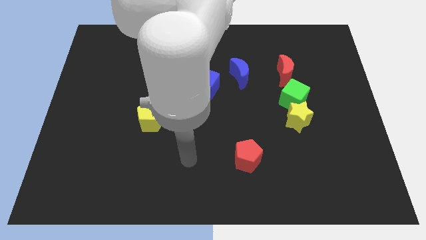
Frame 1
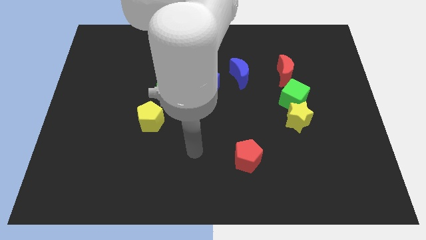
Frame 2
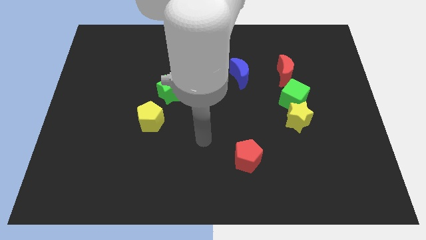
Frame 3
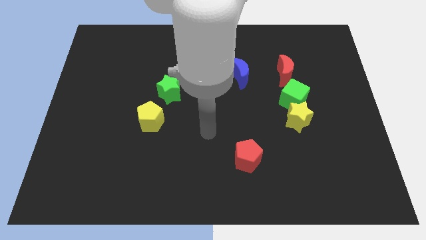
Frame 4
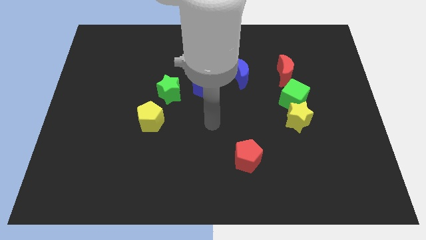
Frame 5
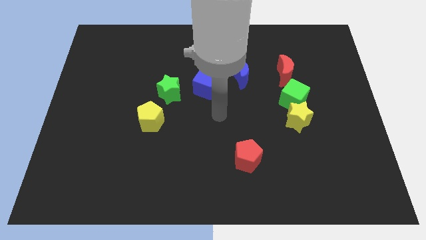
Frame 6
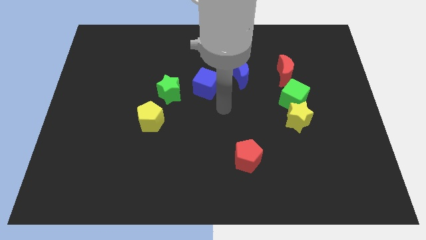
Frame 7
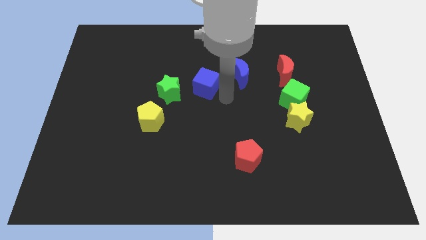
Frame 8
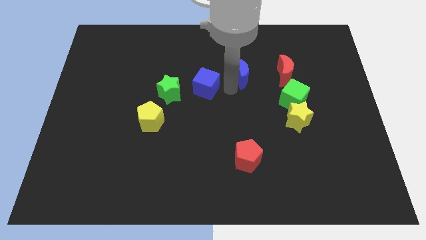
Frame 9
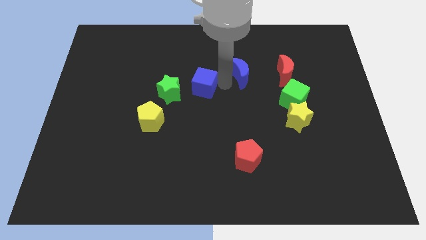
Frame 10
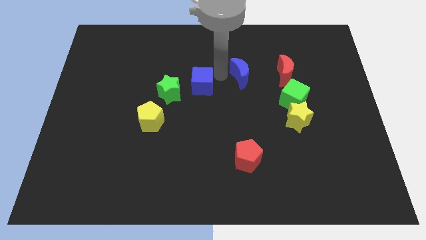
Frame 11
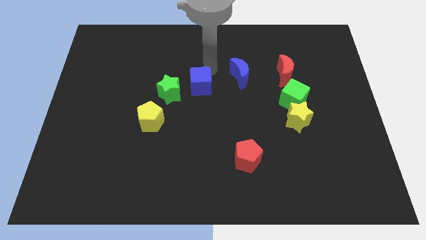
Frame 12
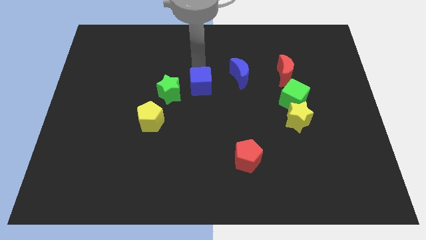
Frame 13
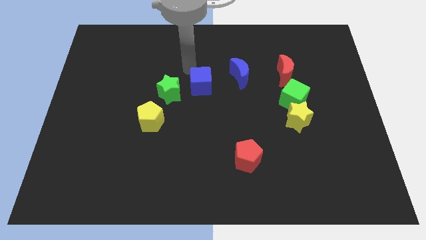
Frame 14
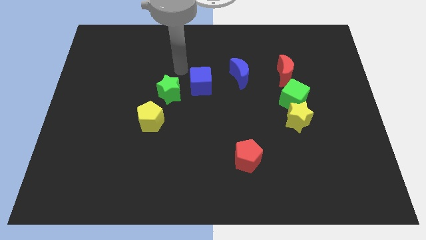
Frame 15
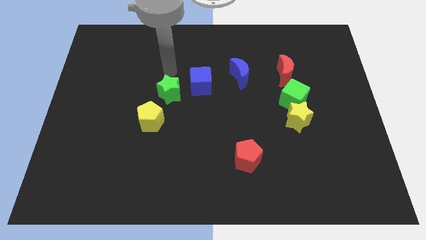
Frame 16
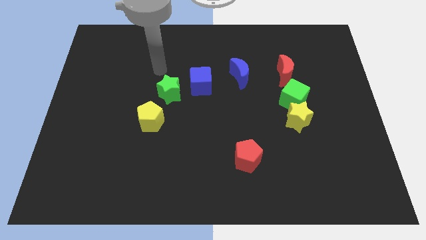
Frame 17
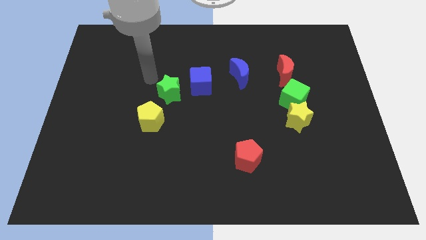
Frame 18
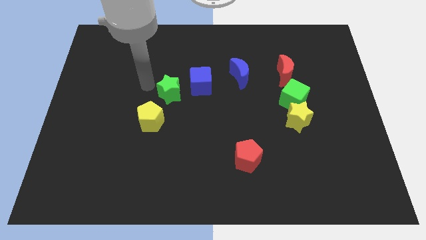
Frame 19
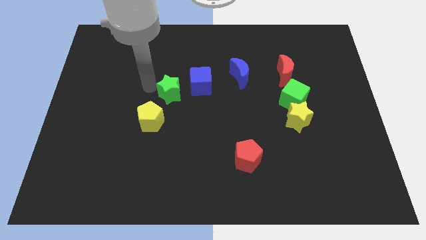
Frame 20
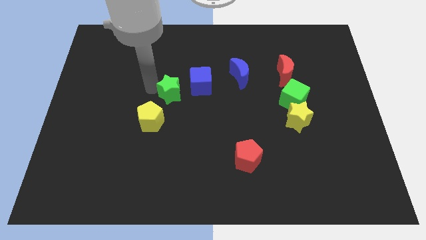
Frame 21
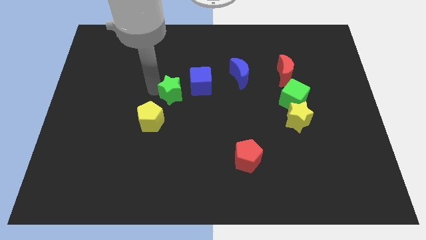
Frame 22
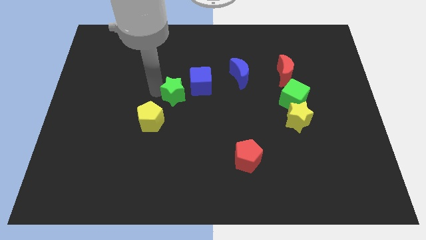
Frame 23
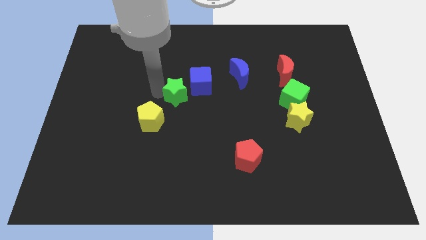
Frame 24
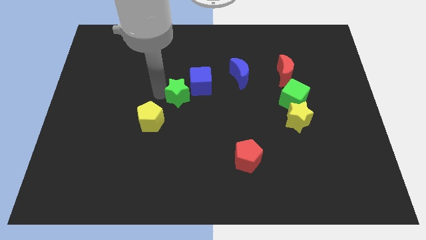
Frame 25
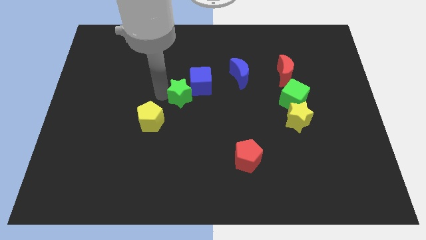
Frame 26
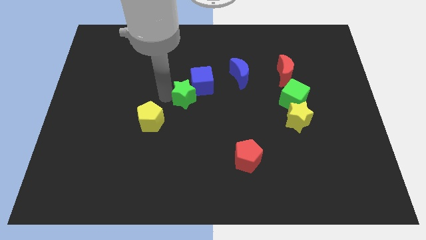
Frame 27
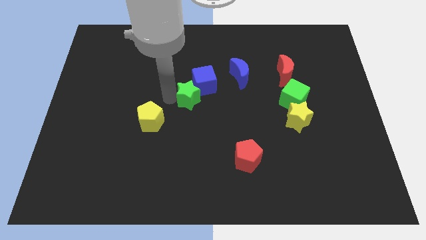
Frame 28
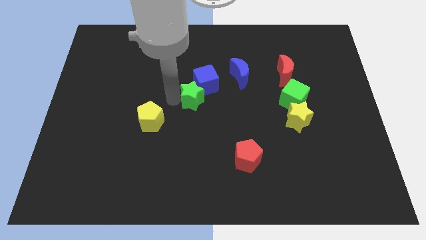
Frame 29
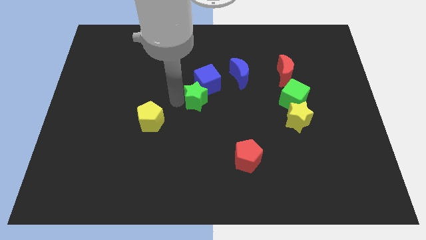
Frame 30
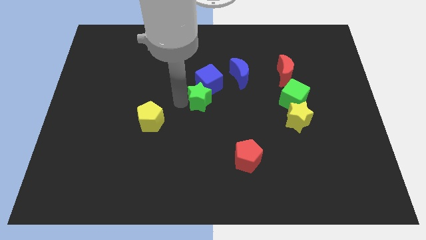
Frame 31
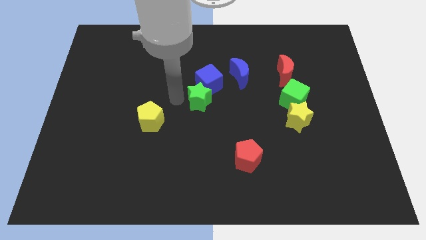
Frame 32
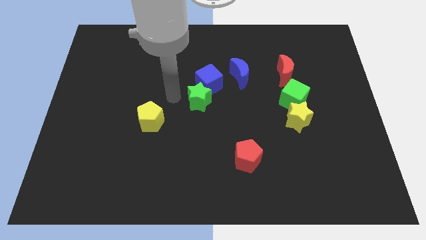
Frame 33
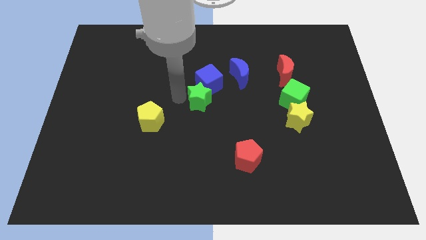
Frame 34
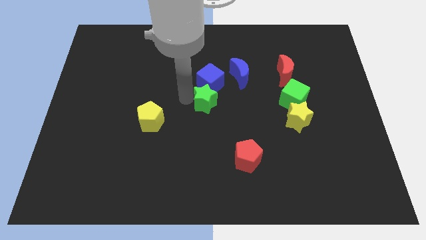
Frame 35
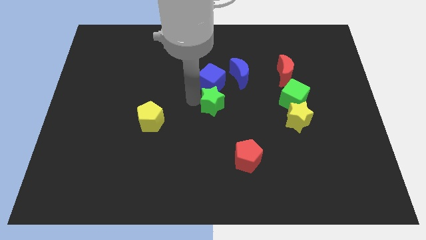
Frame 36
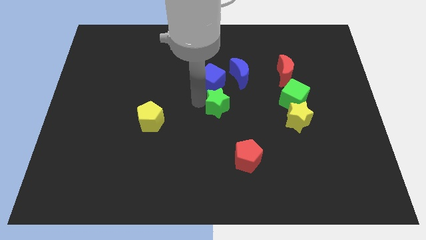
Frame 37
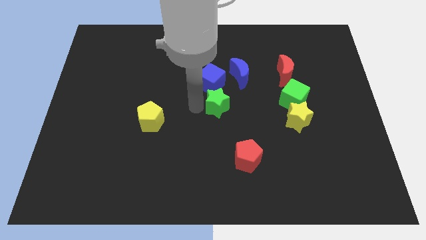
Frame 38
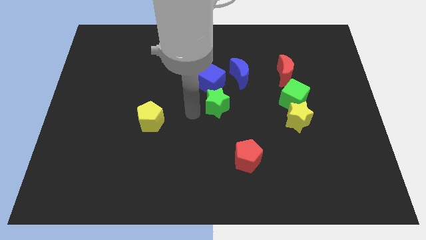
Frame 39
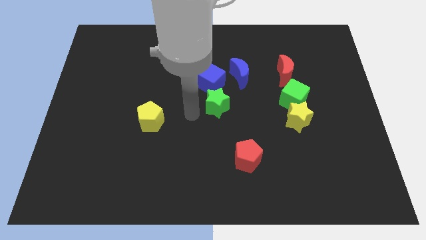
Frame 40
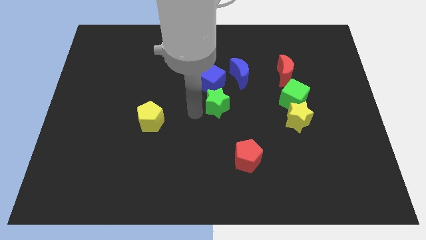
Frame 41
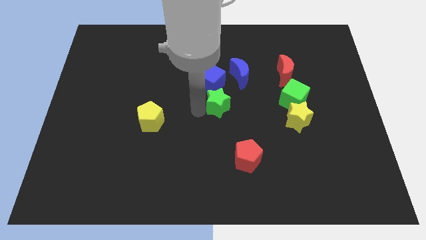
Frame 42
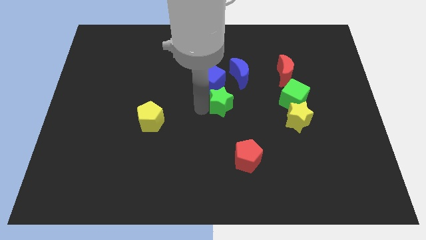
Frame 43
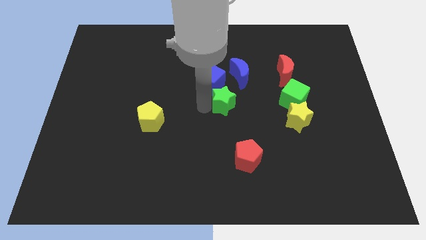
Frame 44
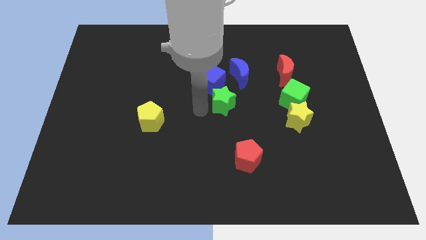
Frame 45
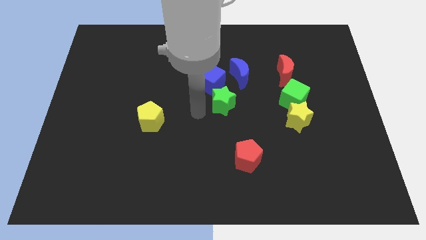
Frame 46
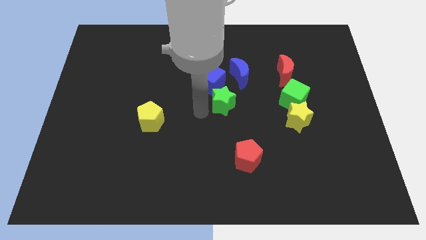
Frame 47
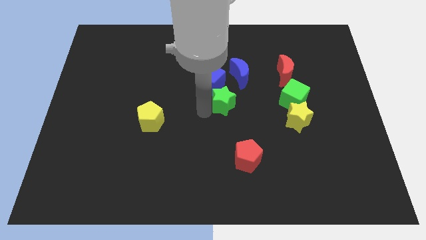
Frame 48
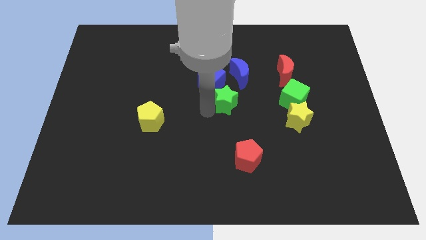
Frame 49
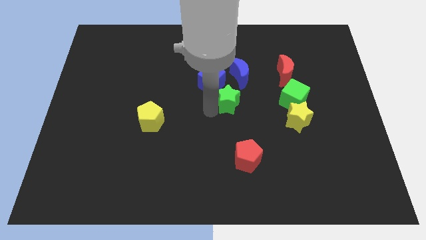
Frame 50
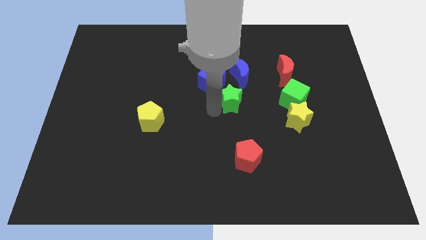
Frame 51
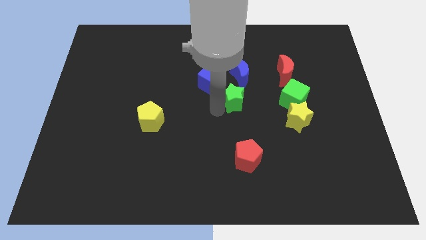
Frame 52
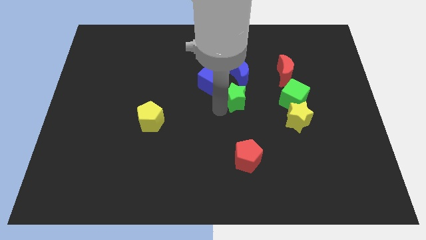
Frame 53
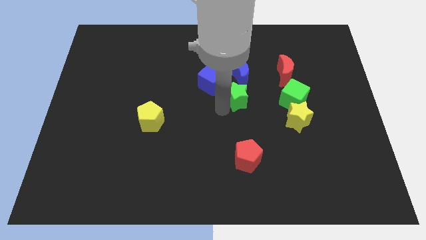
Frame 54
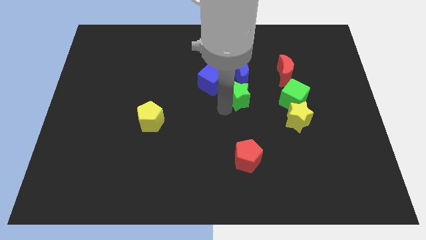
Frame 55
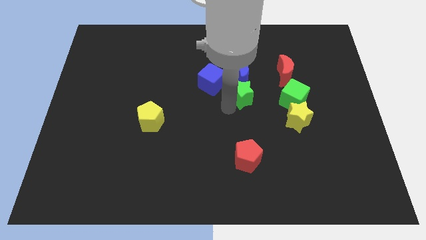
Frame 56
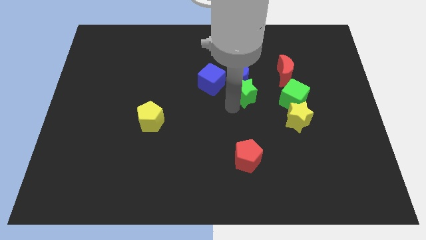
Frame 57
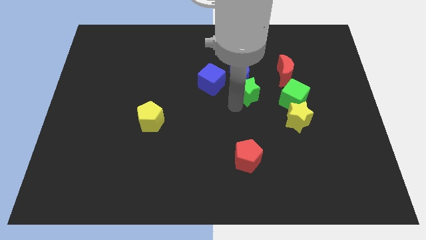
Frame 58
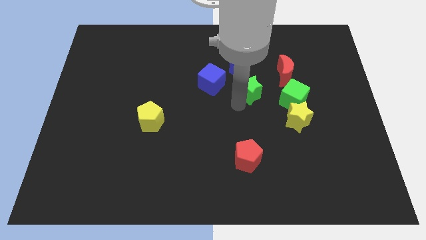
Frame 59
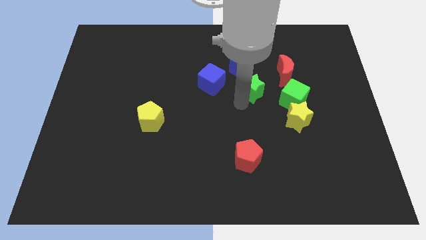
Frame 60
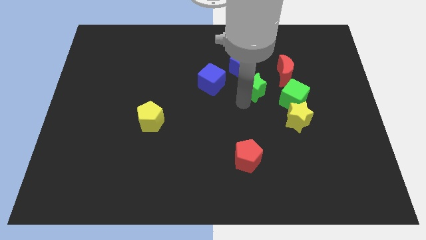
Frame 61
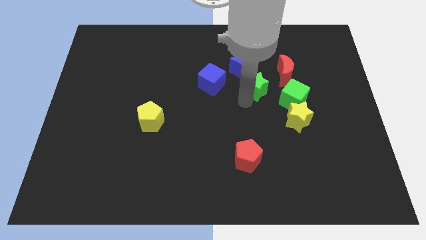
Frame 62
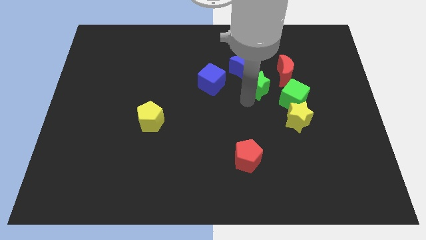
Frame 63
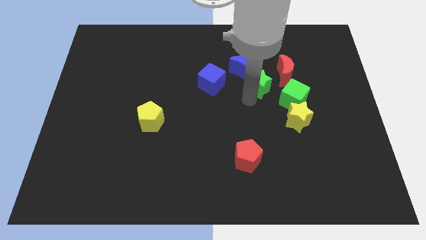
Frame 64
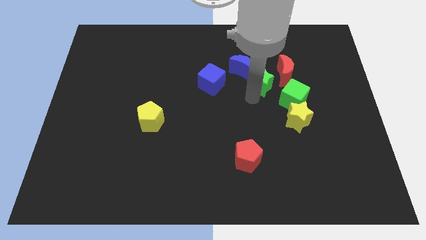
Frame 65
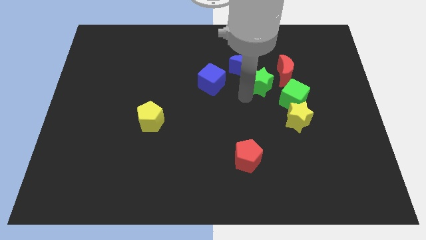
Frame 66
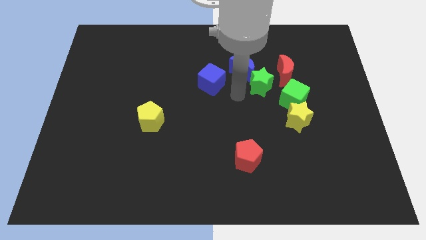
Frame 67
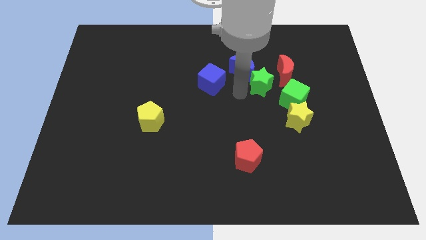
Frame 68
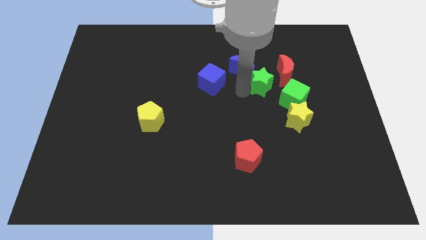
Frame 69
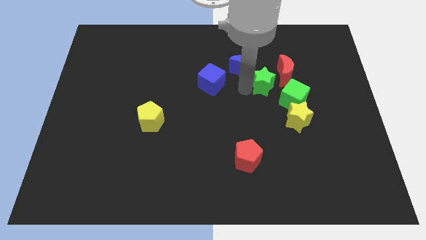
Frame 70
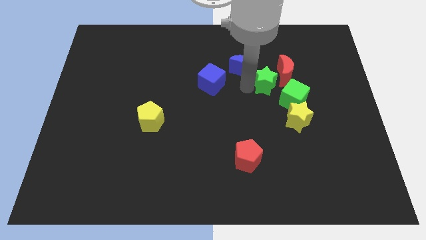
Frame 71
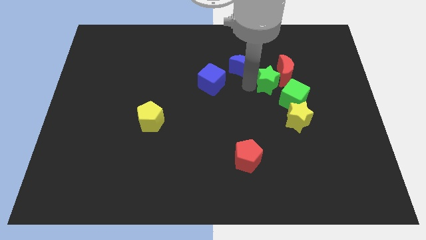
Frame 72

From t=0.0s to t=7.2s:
put the green star towards the red moon

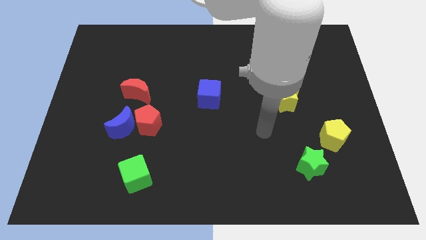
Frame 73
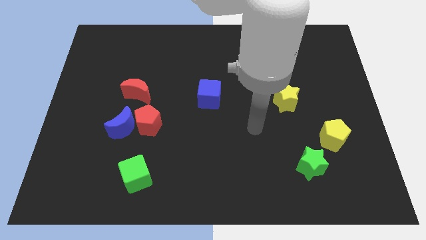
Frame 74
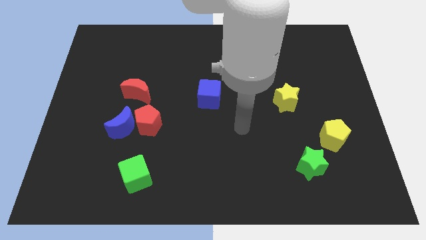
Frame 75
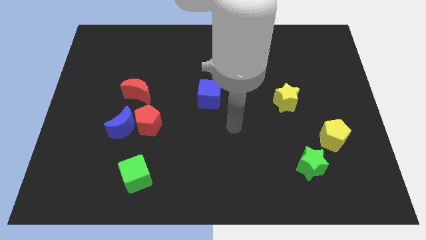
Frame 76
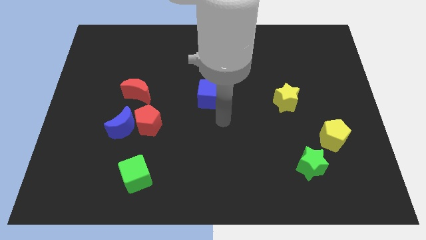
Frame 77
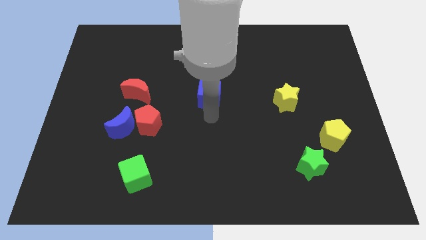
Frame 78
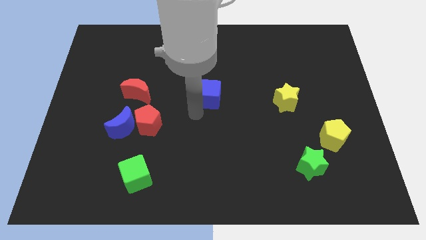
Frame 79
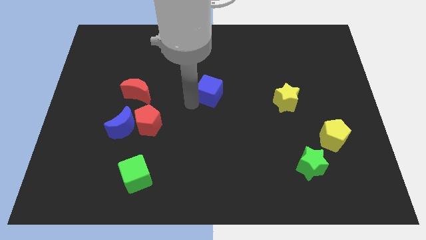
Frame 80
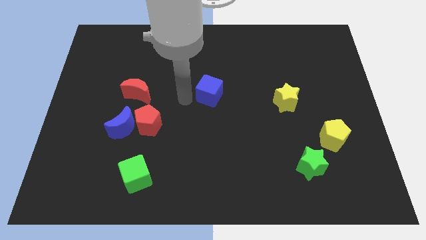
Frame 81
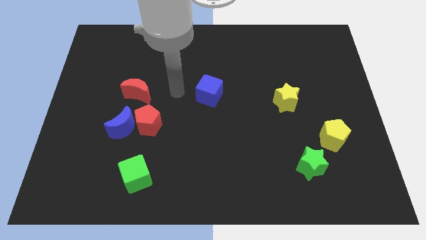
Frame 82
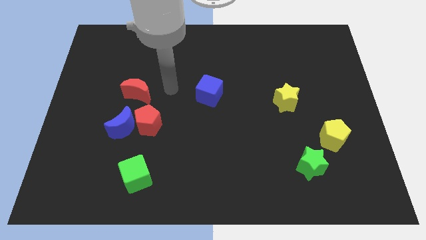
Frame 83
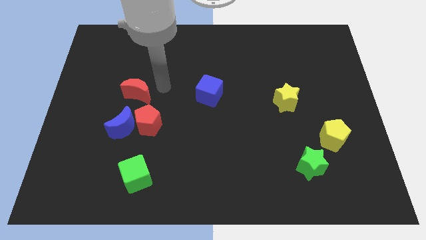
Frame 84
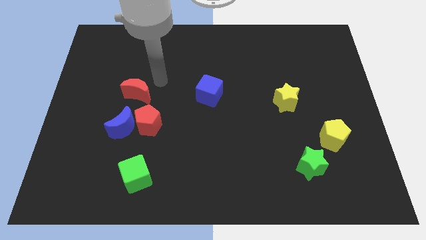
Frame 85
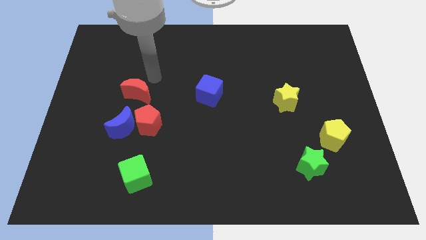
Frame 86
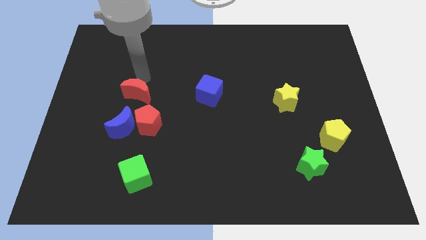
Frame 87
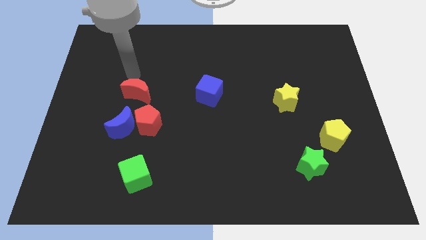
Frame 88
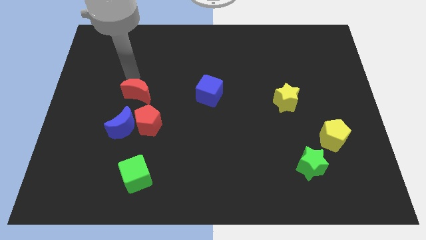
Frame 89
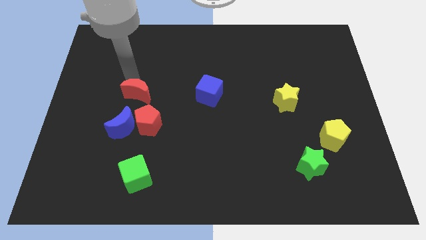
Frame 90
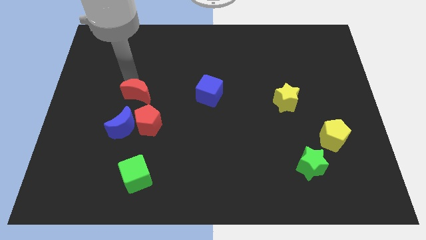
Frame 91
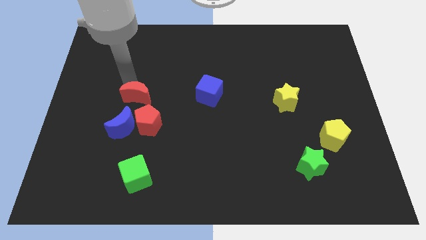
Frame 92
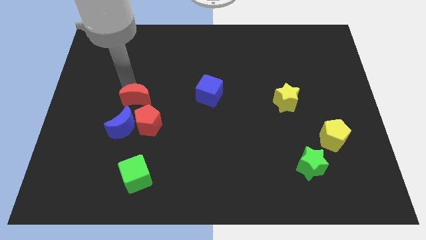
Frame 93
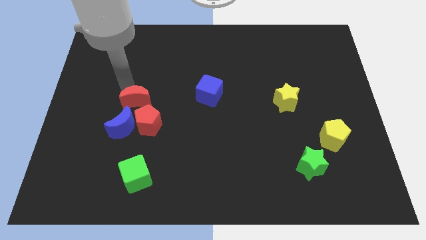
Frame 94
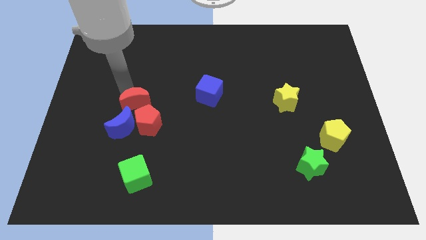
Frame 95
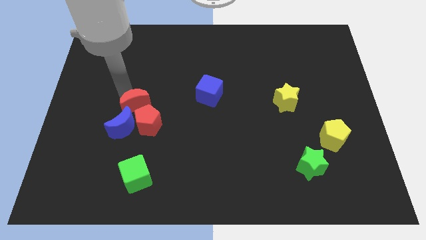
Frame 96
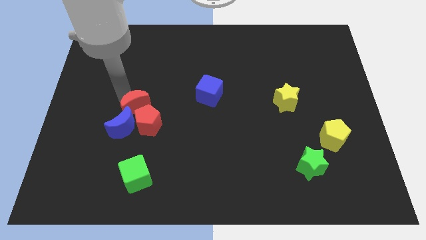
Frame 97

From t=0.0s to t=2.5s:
put the red moon to the red pentagon
